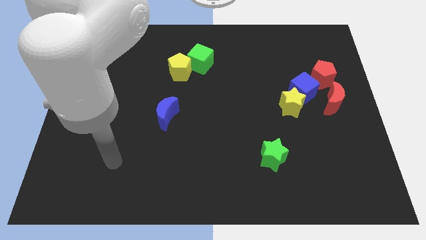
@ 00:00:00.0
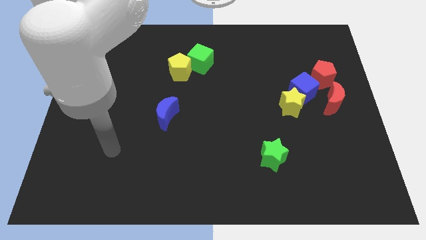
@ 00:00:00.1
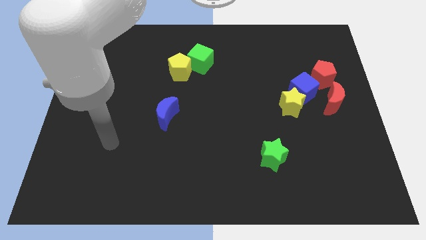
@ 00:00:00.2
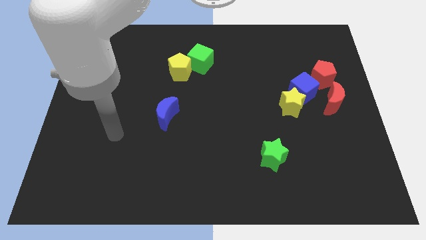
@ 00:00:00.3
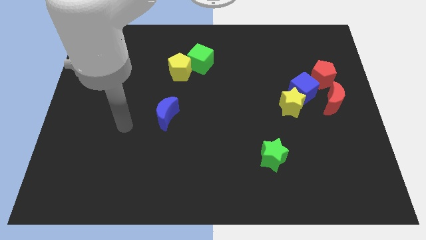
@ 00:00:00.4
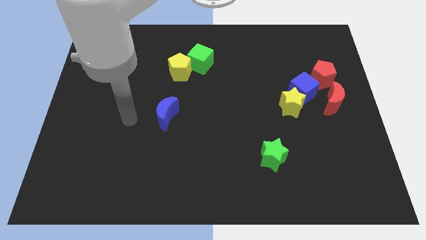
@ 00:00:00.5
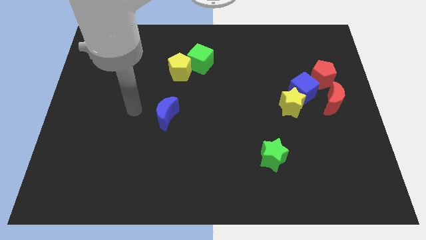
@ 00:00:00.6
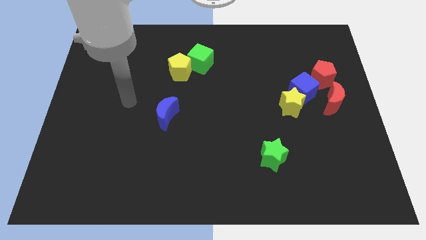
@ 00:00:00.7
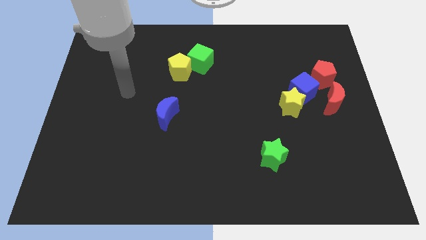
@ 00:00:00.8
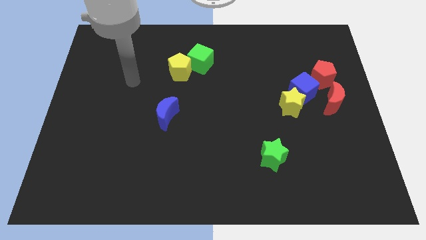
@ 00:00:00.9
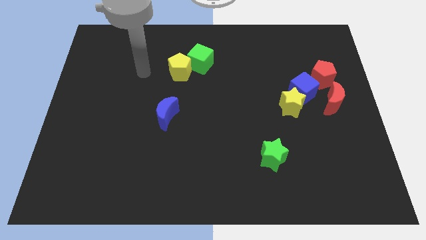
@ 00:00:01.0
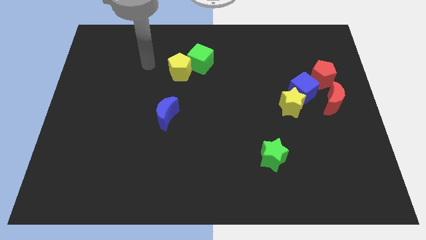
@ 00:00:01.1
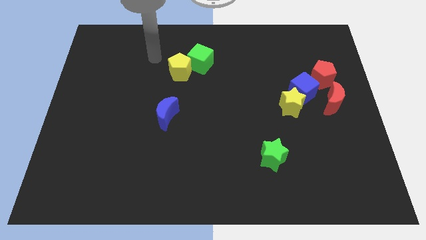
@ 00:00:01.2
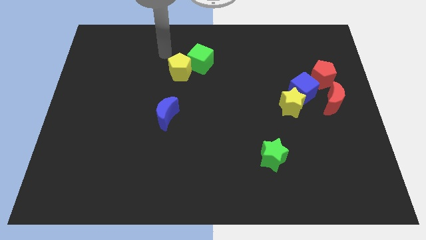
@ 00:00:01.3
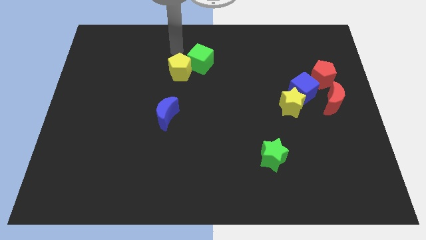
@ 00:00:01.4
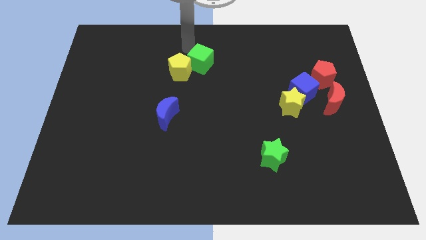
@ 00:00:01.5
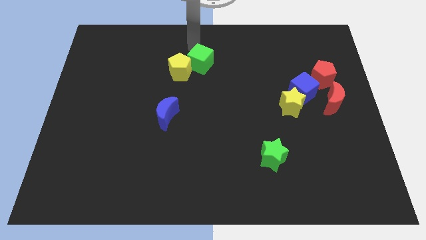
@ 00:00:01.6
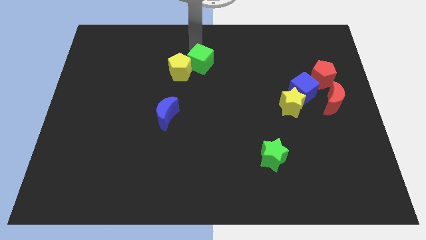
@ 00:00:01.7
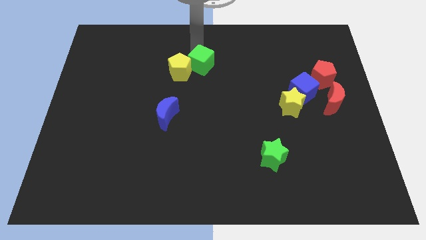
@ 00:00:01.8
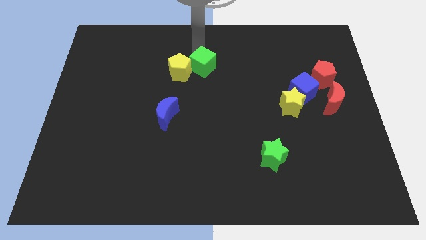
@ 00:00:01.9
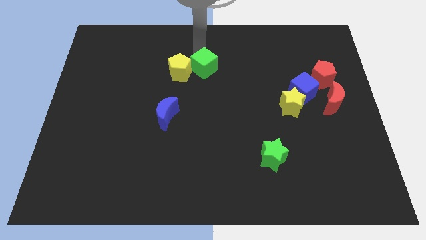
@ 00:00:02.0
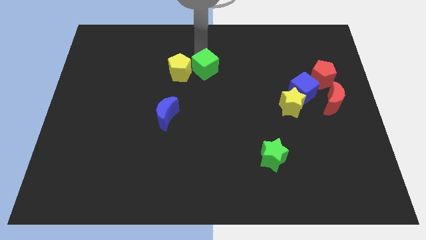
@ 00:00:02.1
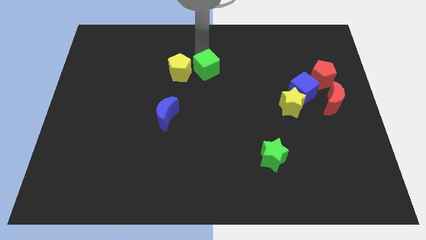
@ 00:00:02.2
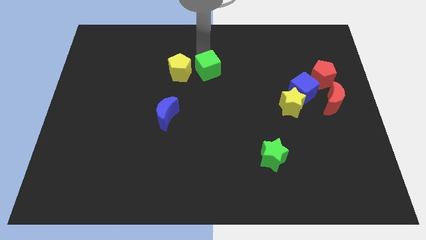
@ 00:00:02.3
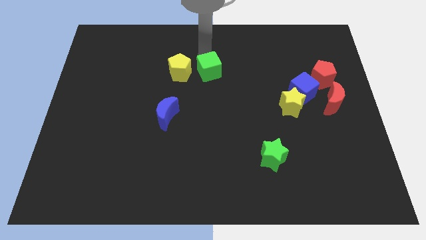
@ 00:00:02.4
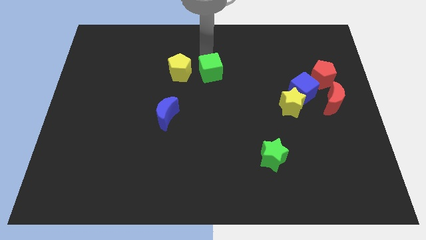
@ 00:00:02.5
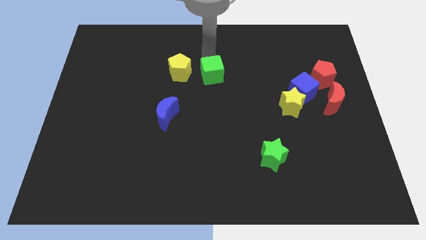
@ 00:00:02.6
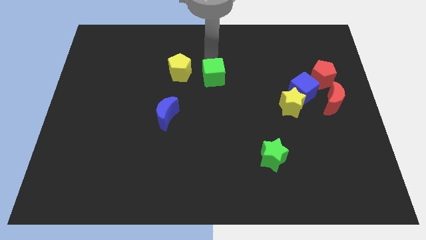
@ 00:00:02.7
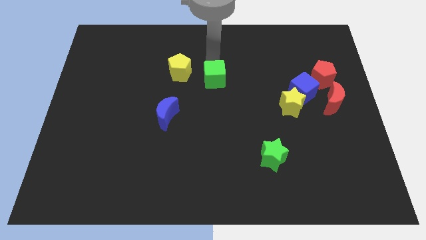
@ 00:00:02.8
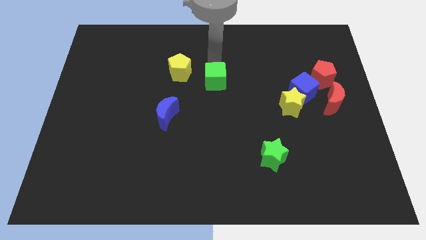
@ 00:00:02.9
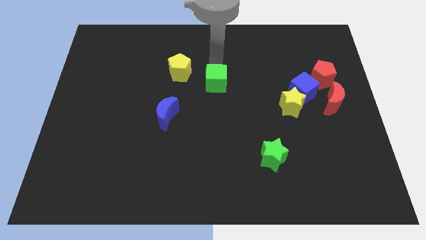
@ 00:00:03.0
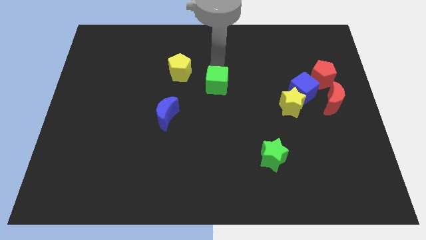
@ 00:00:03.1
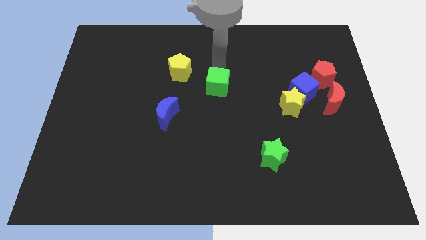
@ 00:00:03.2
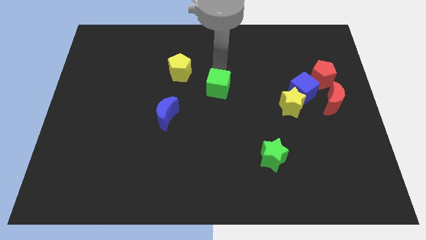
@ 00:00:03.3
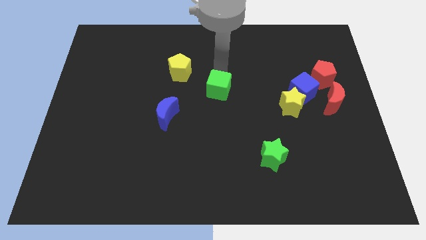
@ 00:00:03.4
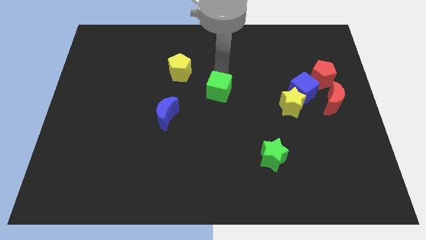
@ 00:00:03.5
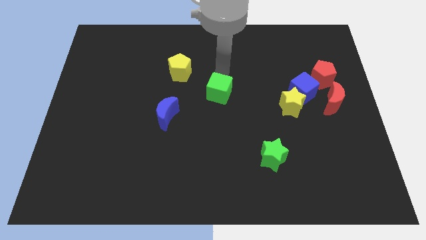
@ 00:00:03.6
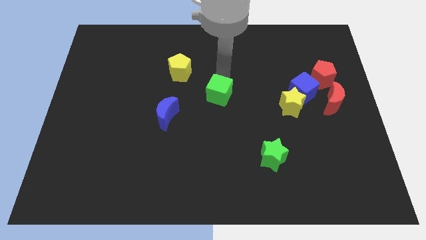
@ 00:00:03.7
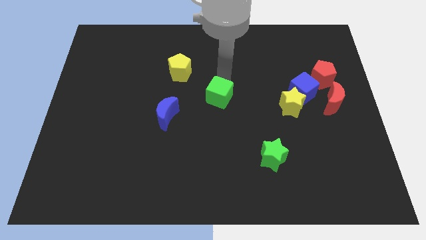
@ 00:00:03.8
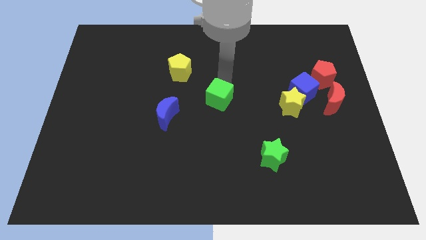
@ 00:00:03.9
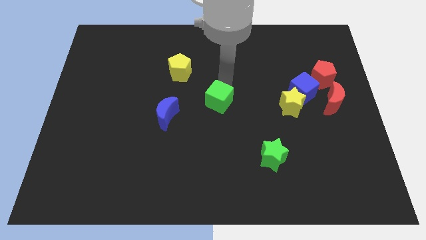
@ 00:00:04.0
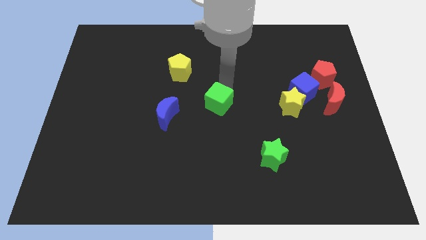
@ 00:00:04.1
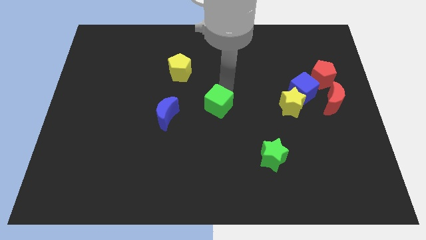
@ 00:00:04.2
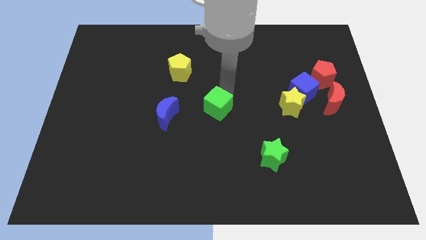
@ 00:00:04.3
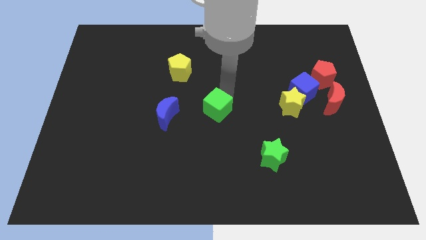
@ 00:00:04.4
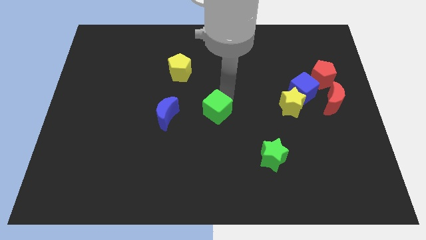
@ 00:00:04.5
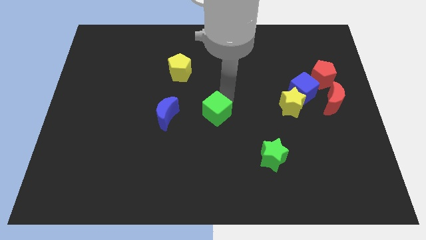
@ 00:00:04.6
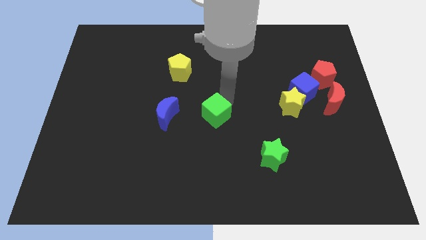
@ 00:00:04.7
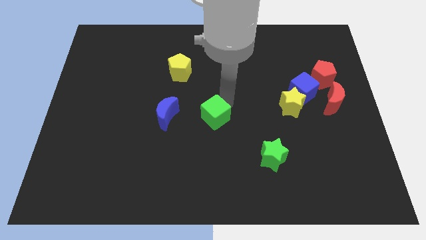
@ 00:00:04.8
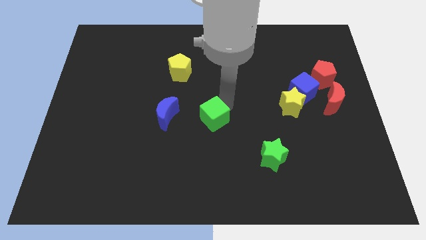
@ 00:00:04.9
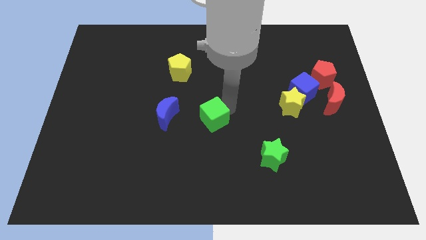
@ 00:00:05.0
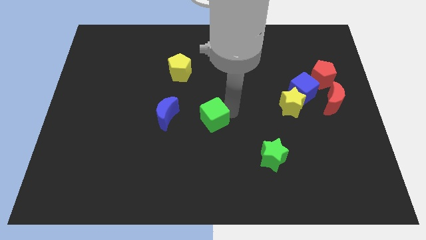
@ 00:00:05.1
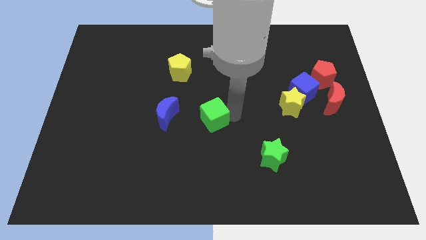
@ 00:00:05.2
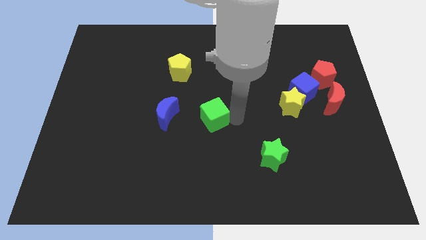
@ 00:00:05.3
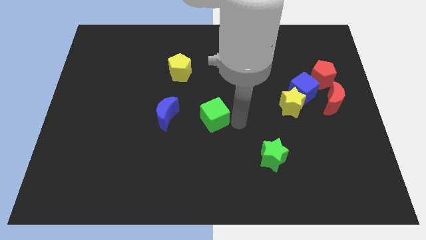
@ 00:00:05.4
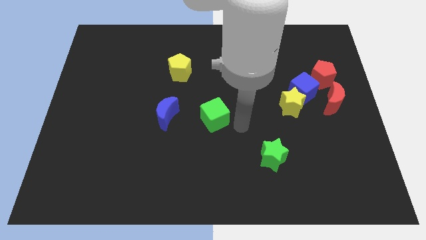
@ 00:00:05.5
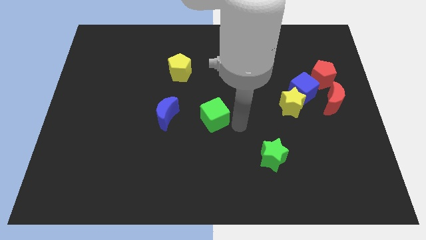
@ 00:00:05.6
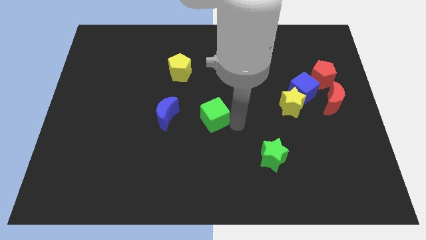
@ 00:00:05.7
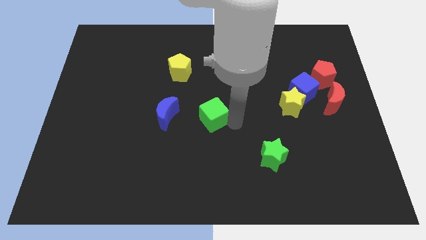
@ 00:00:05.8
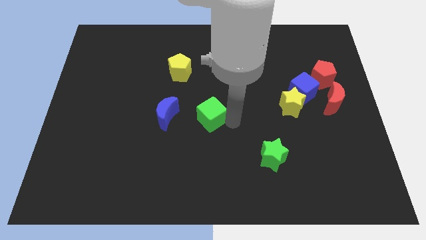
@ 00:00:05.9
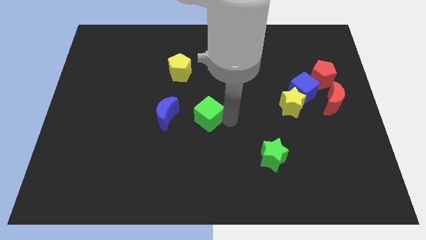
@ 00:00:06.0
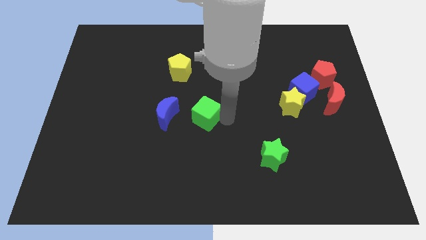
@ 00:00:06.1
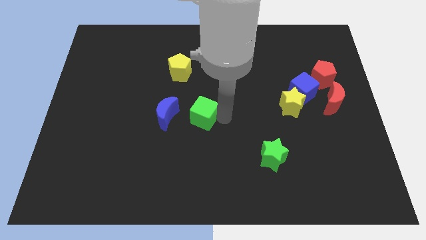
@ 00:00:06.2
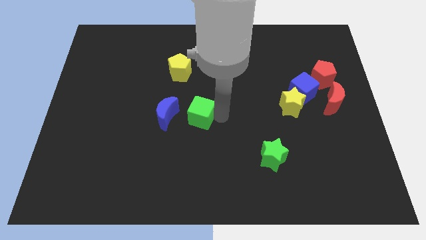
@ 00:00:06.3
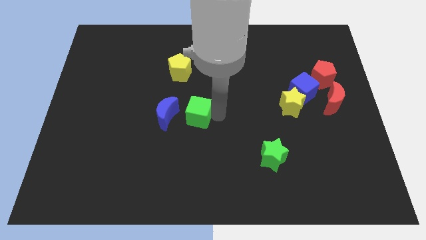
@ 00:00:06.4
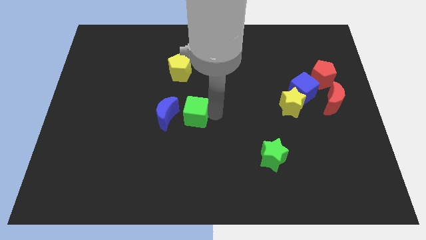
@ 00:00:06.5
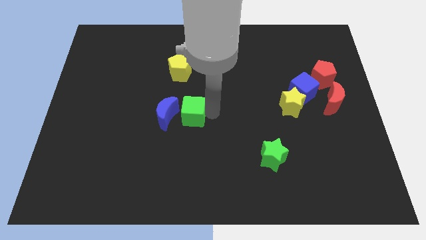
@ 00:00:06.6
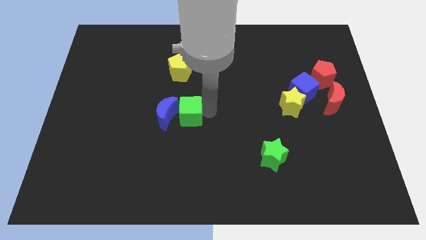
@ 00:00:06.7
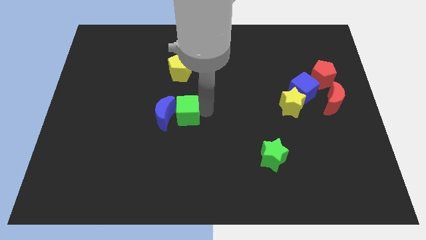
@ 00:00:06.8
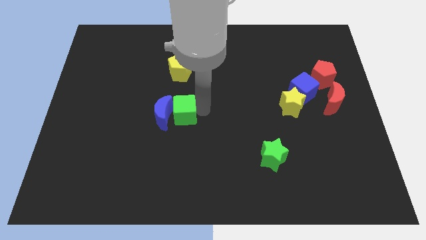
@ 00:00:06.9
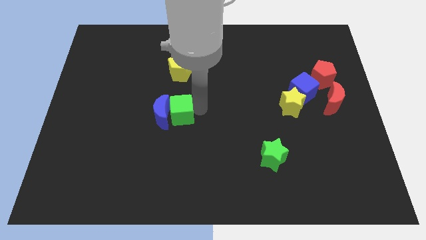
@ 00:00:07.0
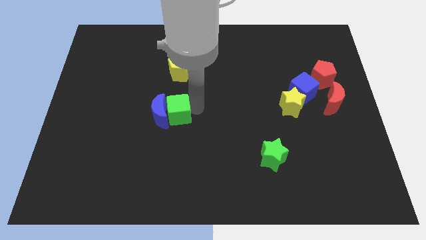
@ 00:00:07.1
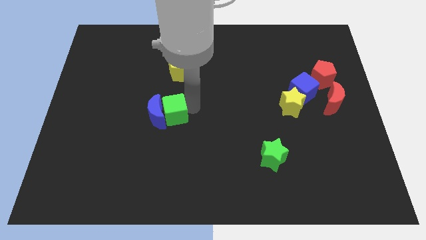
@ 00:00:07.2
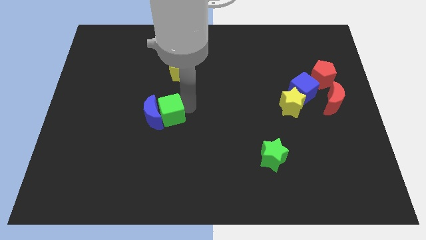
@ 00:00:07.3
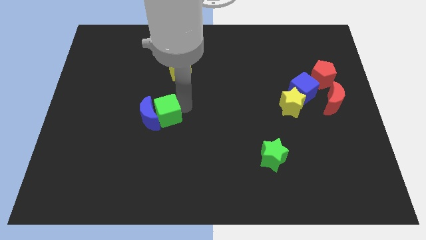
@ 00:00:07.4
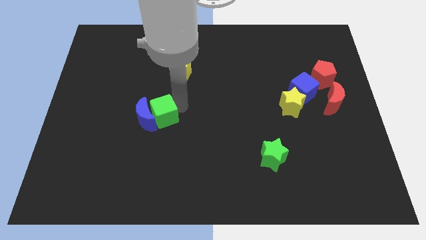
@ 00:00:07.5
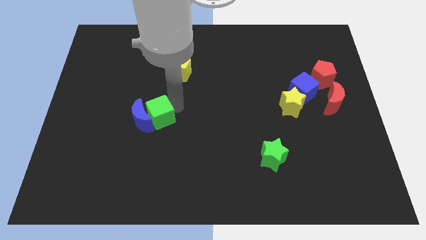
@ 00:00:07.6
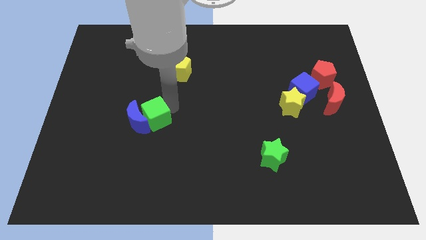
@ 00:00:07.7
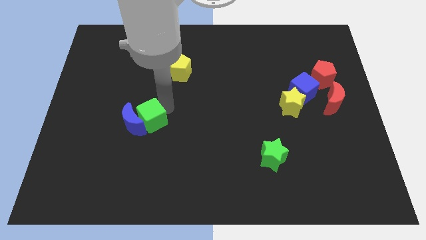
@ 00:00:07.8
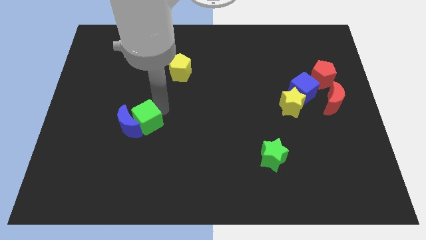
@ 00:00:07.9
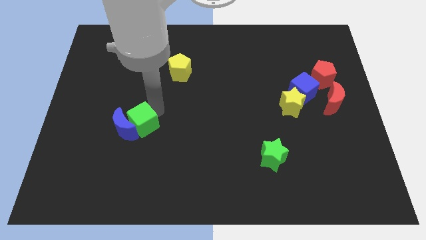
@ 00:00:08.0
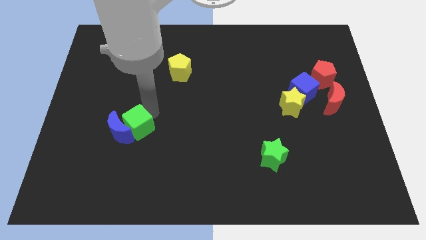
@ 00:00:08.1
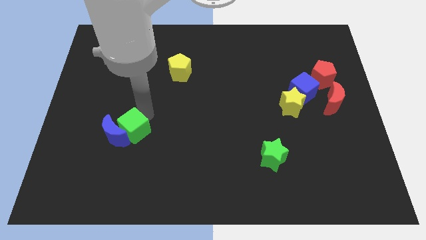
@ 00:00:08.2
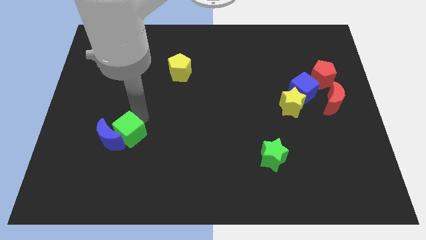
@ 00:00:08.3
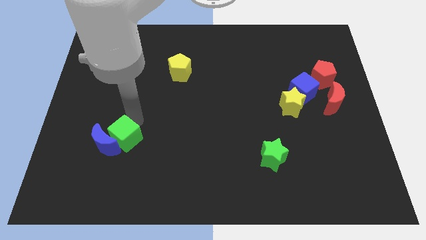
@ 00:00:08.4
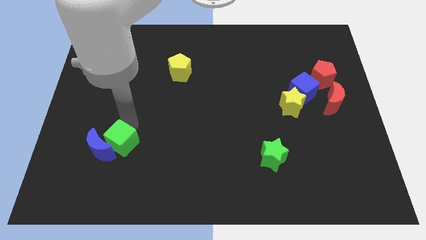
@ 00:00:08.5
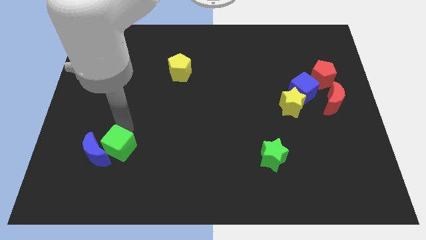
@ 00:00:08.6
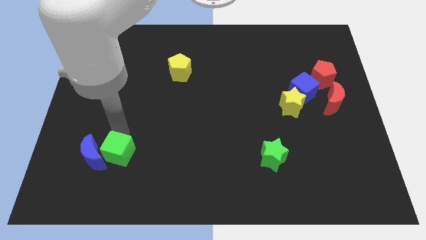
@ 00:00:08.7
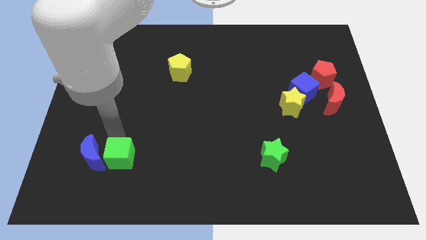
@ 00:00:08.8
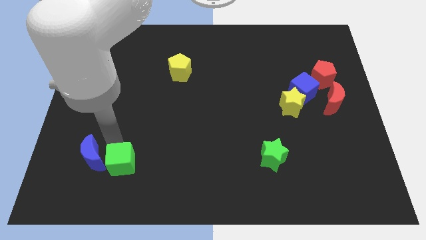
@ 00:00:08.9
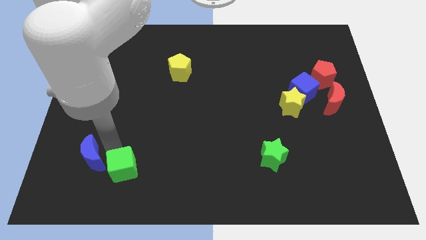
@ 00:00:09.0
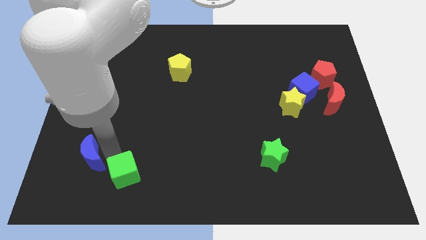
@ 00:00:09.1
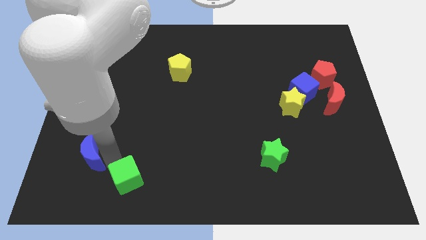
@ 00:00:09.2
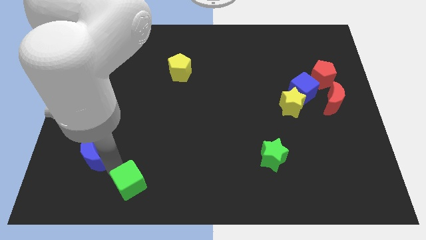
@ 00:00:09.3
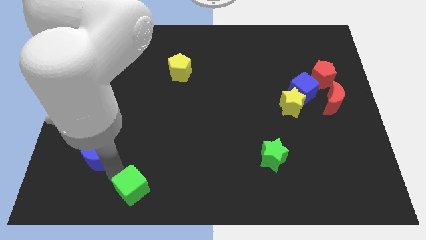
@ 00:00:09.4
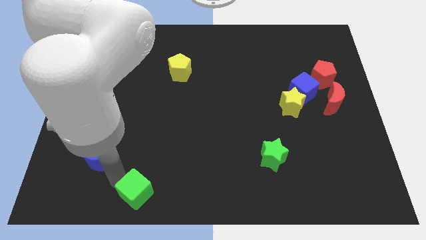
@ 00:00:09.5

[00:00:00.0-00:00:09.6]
push the green cube downwards
